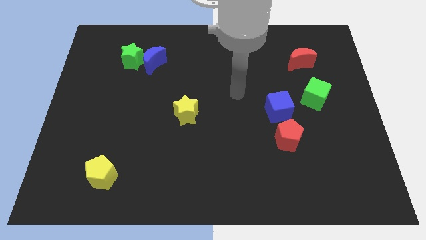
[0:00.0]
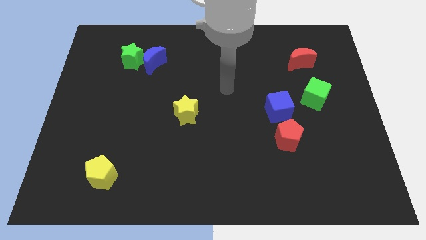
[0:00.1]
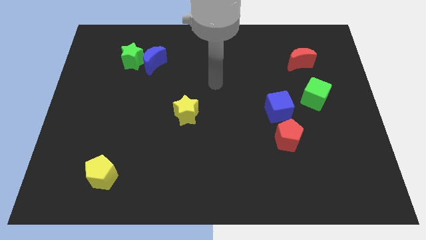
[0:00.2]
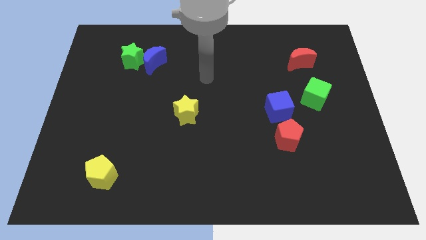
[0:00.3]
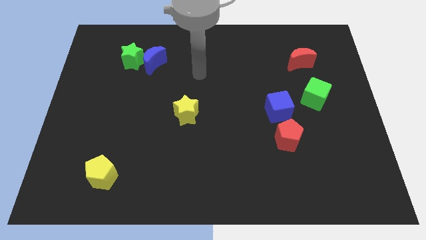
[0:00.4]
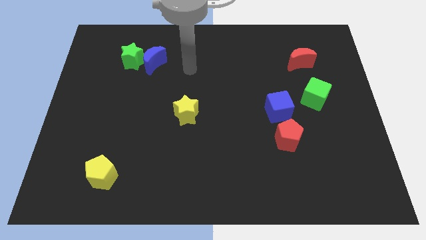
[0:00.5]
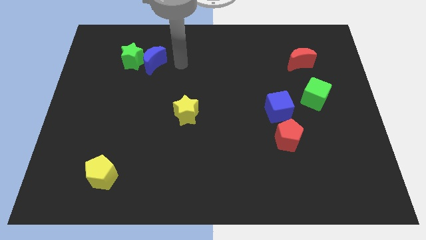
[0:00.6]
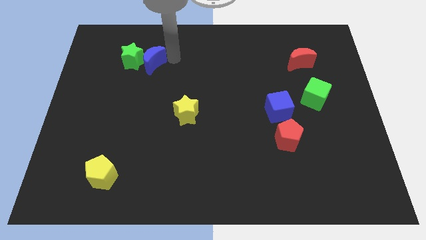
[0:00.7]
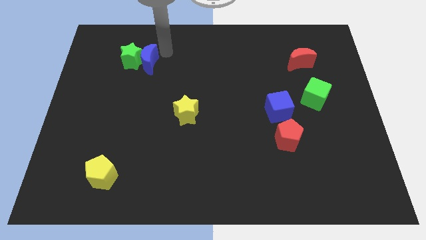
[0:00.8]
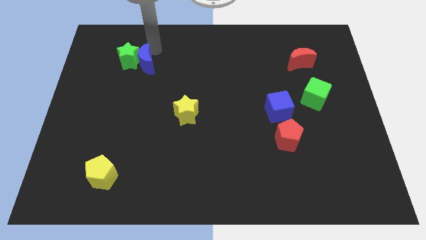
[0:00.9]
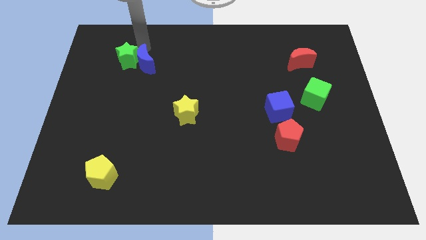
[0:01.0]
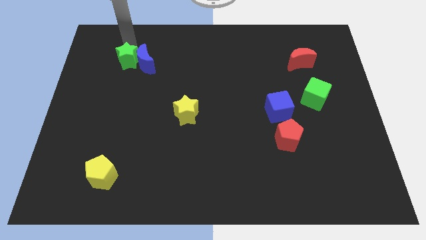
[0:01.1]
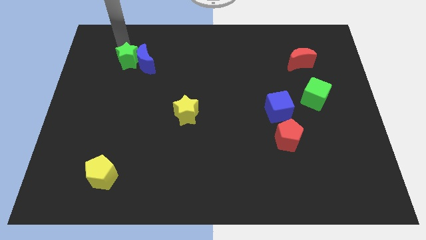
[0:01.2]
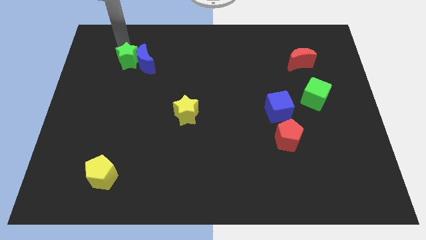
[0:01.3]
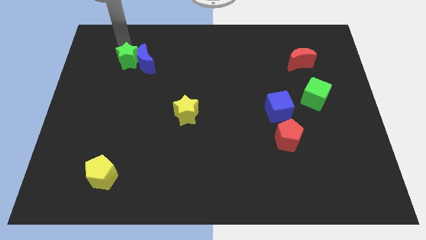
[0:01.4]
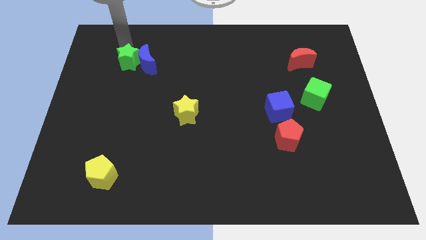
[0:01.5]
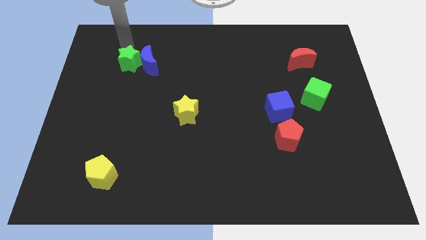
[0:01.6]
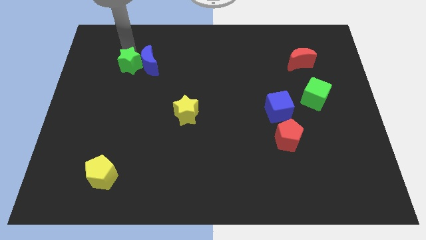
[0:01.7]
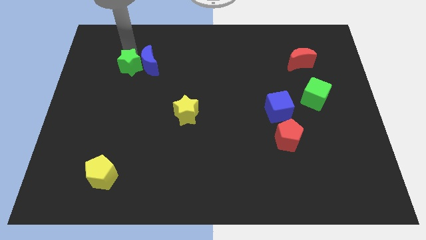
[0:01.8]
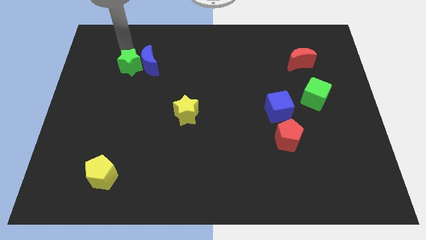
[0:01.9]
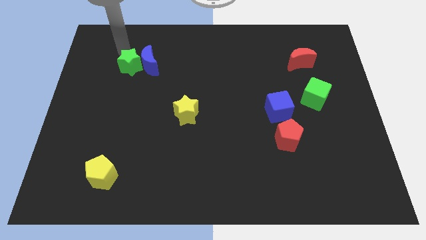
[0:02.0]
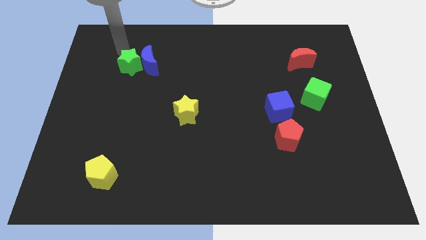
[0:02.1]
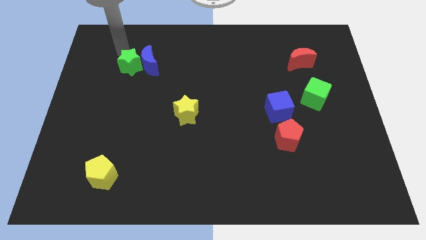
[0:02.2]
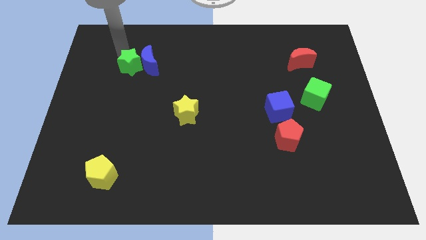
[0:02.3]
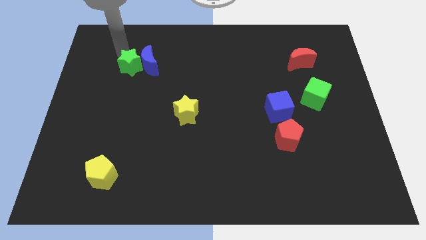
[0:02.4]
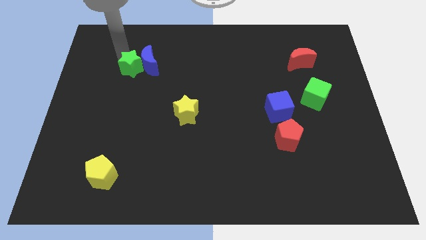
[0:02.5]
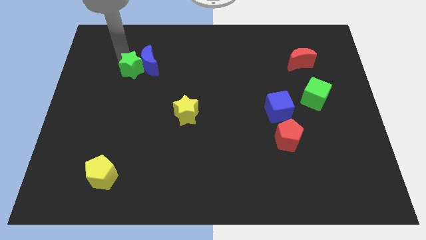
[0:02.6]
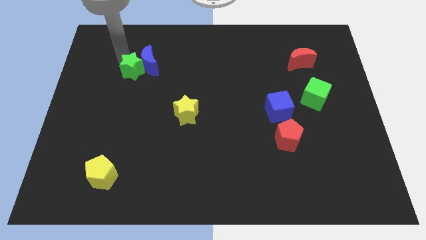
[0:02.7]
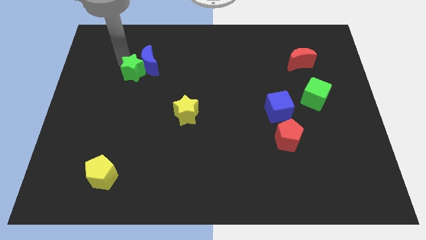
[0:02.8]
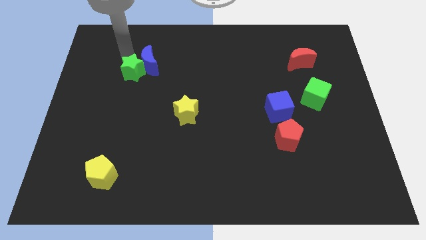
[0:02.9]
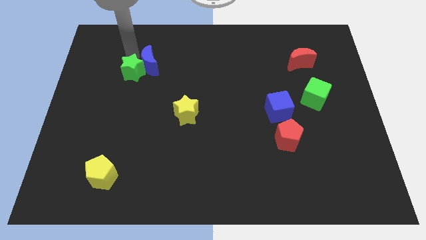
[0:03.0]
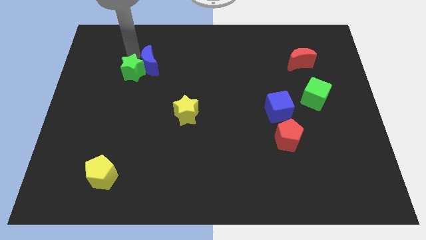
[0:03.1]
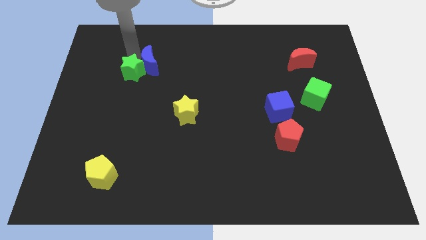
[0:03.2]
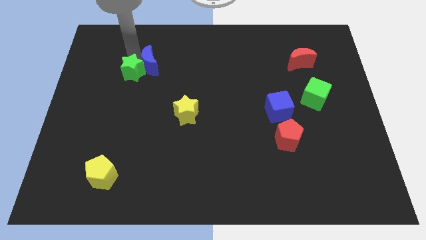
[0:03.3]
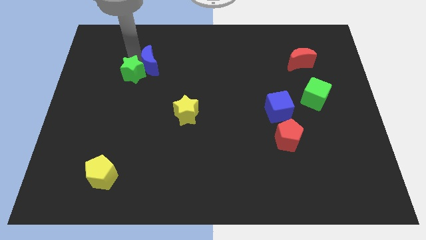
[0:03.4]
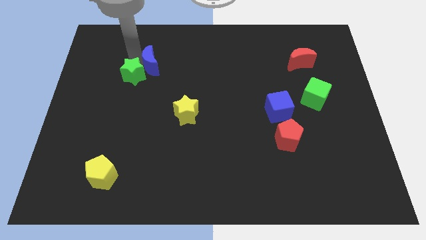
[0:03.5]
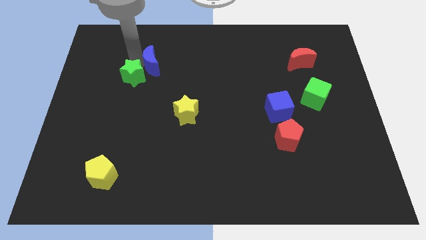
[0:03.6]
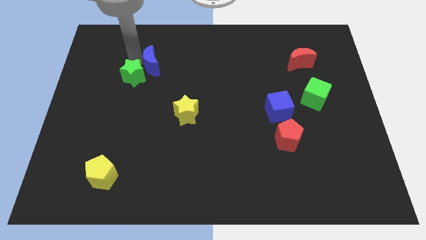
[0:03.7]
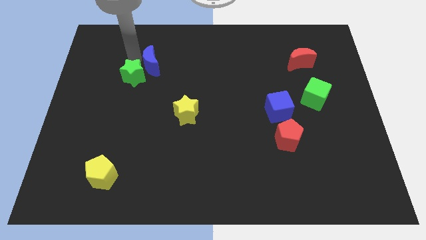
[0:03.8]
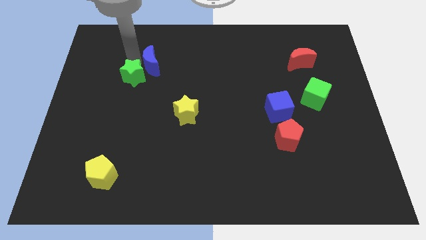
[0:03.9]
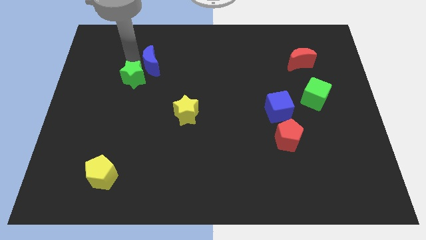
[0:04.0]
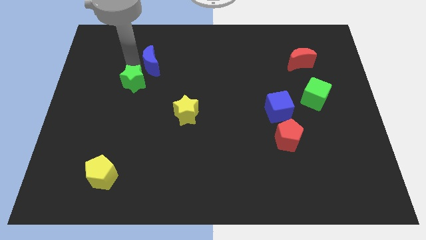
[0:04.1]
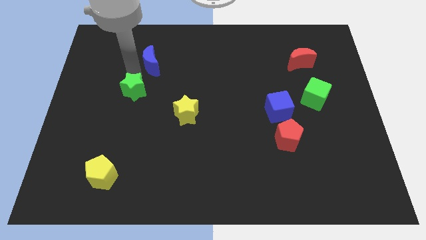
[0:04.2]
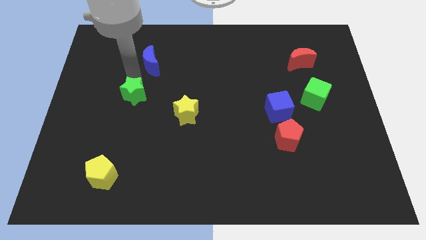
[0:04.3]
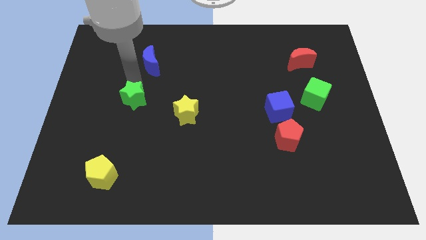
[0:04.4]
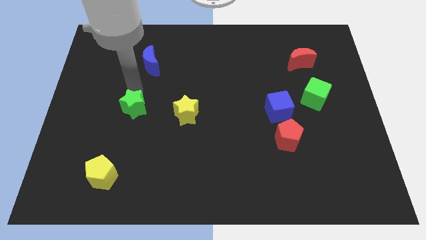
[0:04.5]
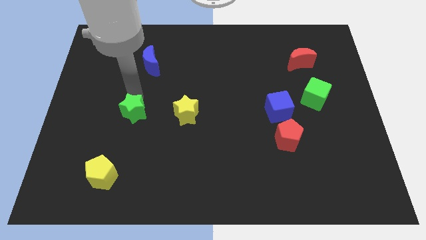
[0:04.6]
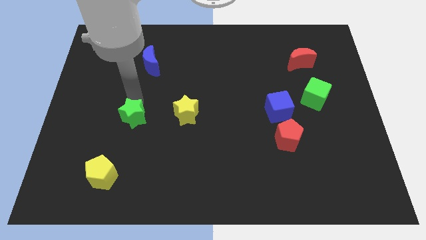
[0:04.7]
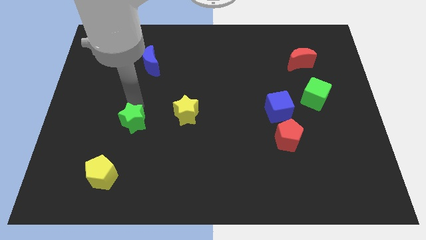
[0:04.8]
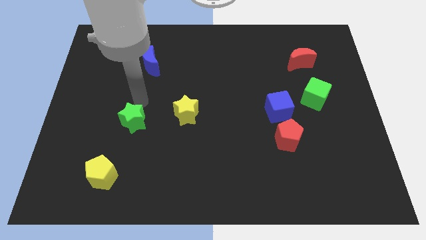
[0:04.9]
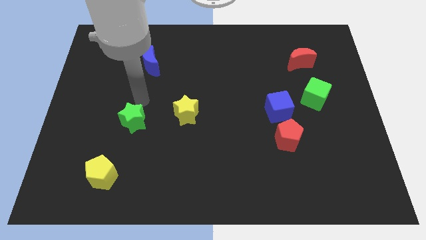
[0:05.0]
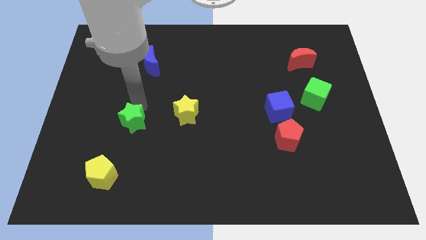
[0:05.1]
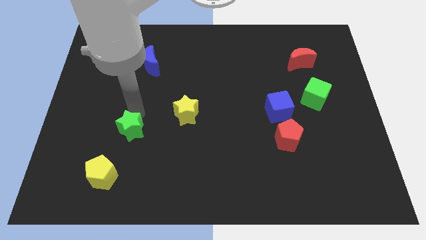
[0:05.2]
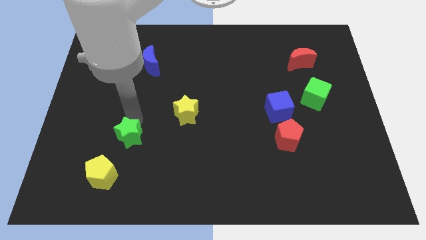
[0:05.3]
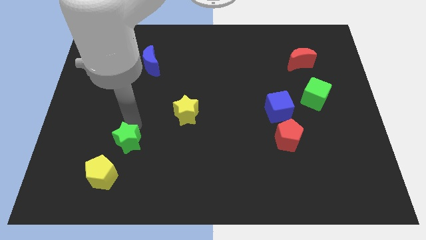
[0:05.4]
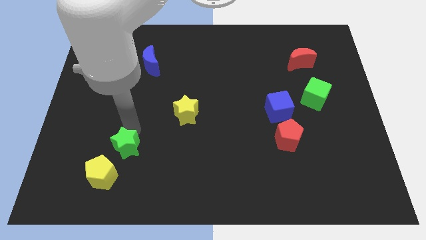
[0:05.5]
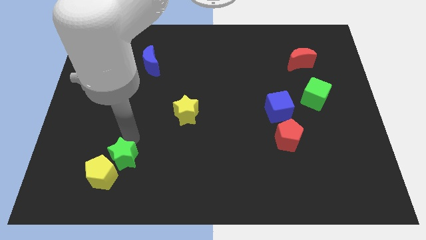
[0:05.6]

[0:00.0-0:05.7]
push the green star next to the yellow pentagon
